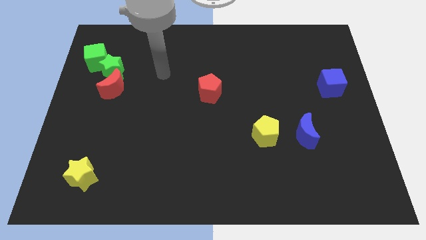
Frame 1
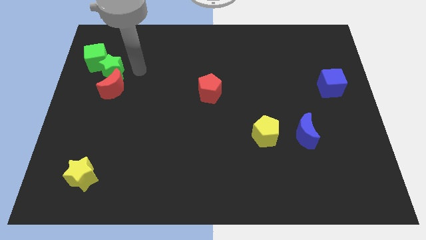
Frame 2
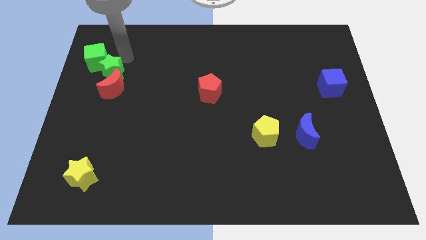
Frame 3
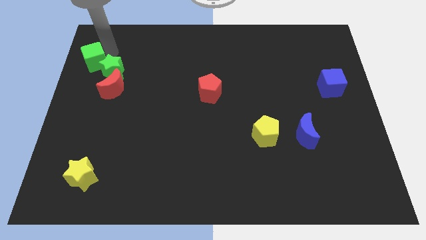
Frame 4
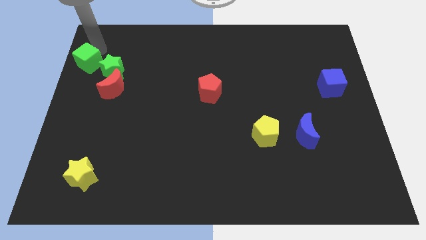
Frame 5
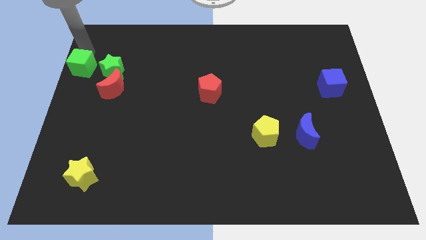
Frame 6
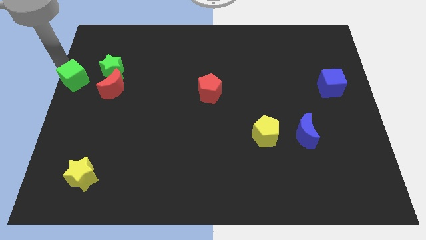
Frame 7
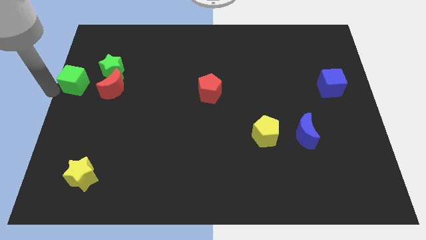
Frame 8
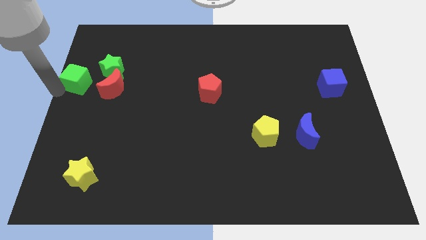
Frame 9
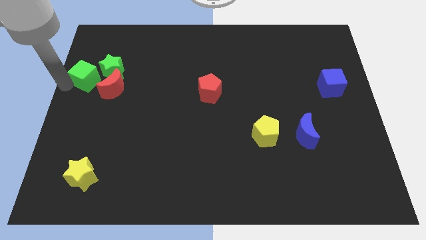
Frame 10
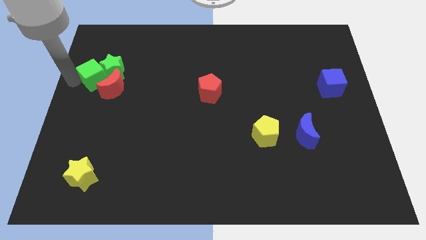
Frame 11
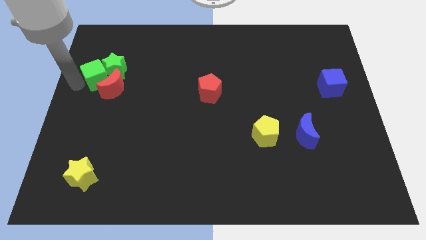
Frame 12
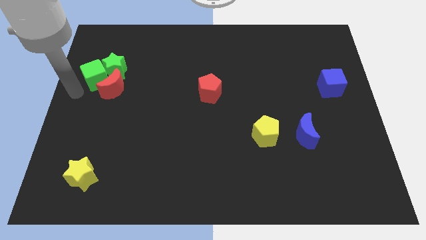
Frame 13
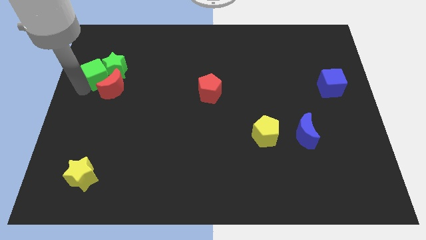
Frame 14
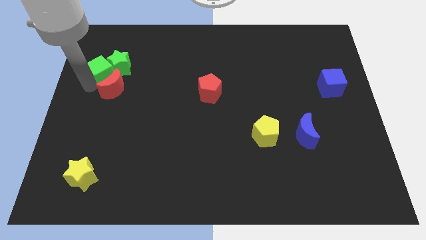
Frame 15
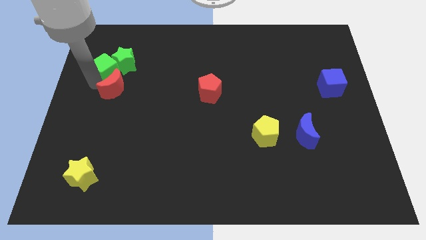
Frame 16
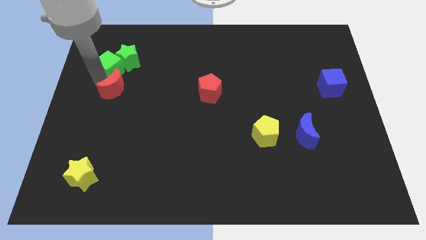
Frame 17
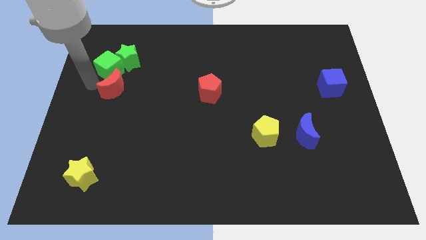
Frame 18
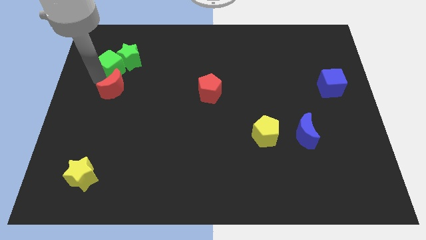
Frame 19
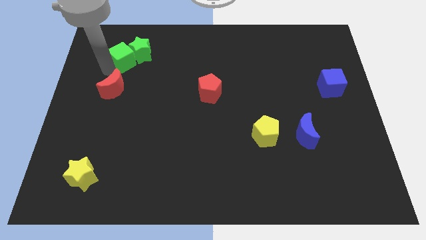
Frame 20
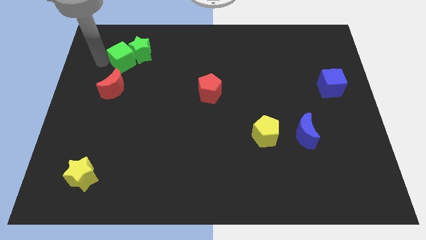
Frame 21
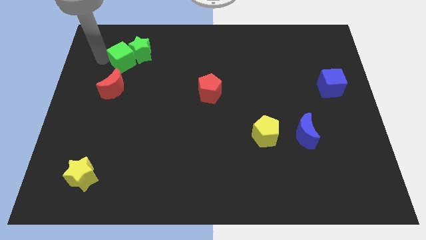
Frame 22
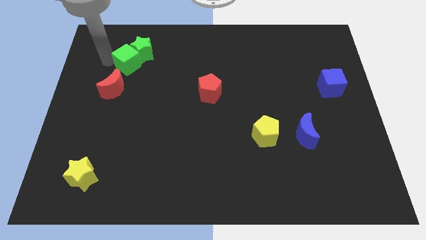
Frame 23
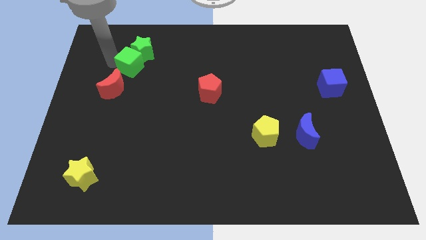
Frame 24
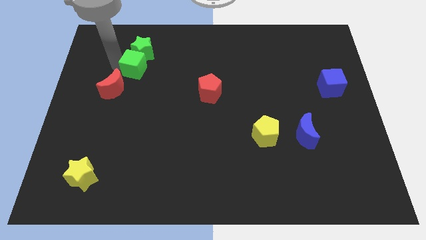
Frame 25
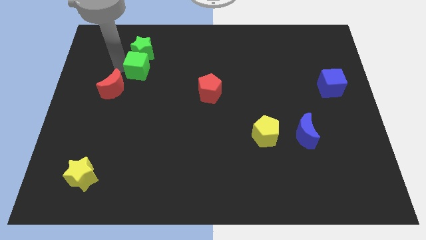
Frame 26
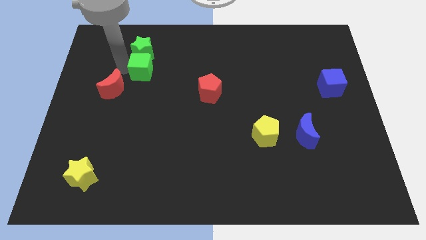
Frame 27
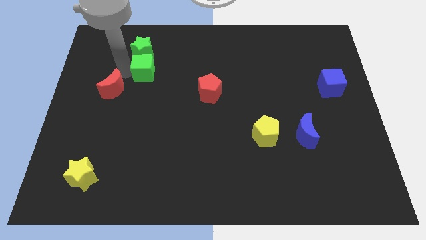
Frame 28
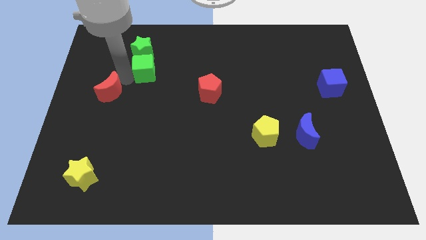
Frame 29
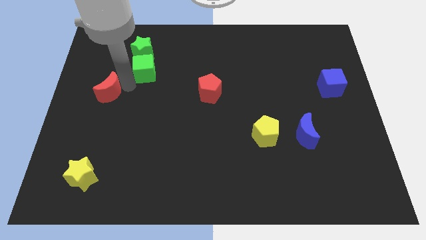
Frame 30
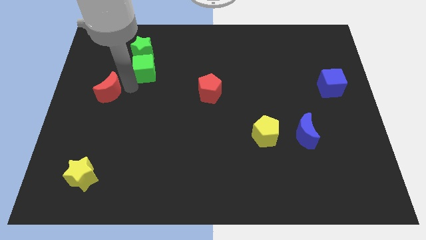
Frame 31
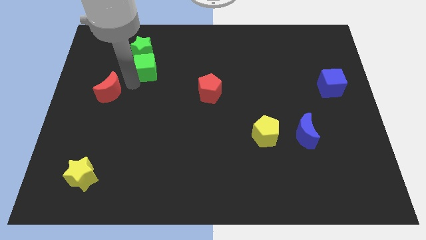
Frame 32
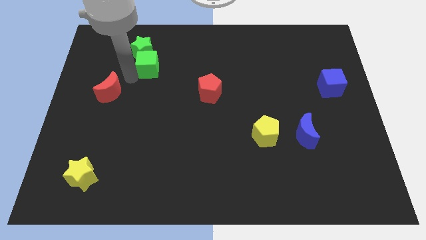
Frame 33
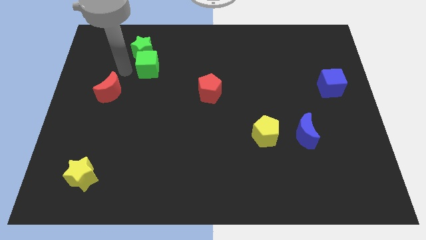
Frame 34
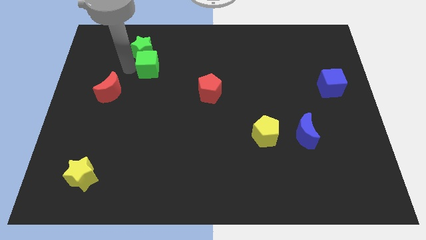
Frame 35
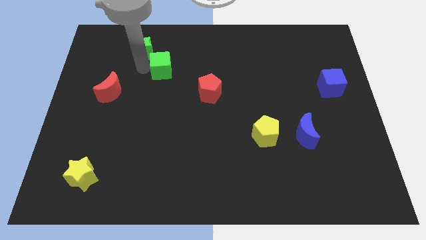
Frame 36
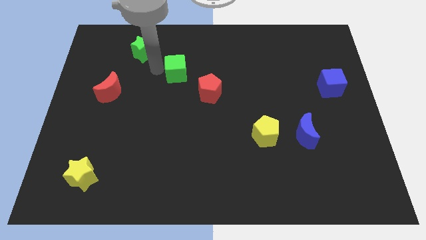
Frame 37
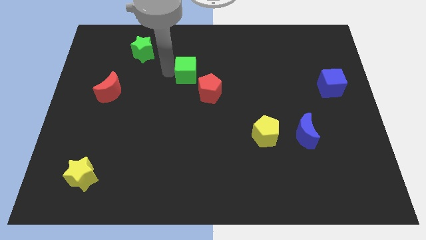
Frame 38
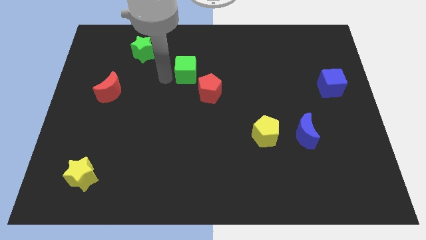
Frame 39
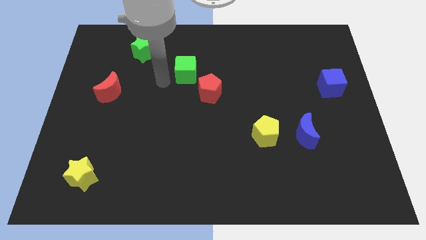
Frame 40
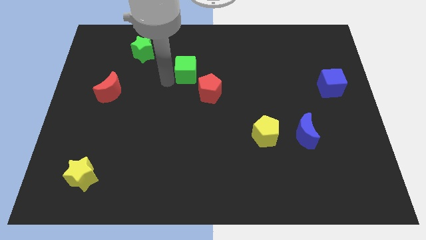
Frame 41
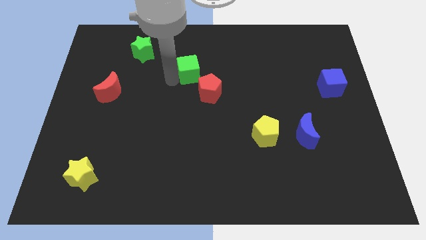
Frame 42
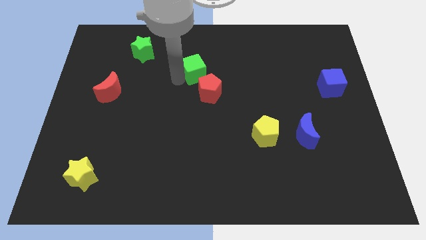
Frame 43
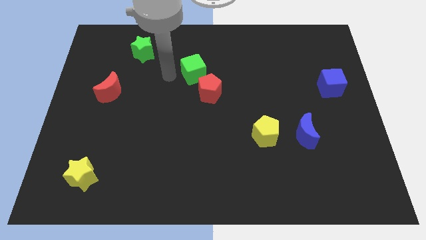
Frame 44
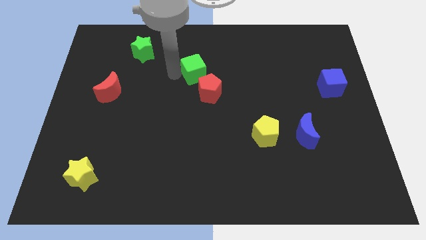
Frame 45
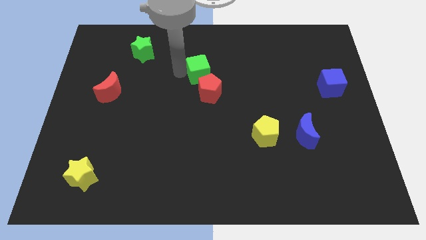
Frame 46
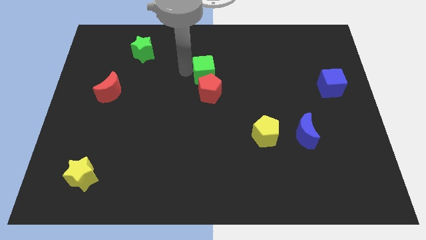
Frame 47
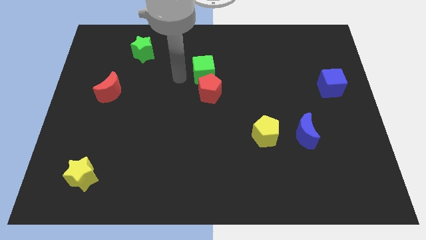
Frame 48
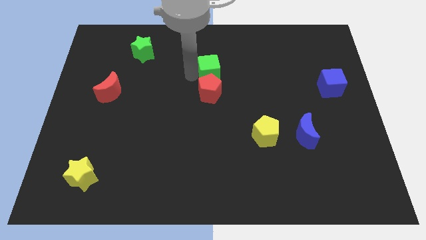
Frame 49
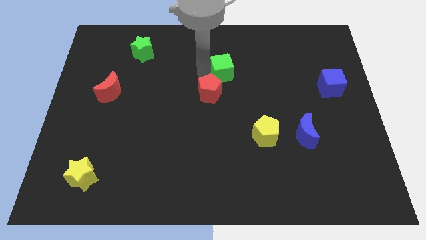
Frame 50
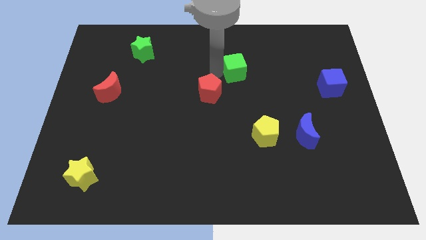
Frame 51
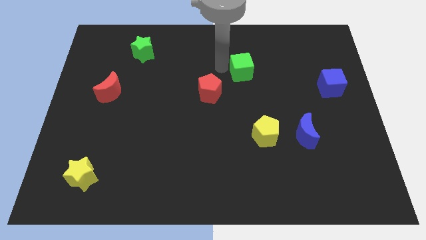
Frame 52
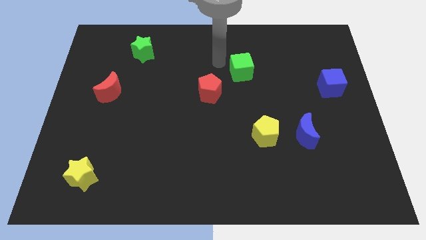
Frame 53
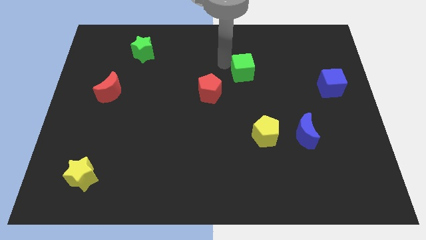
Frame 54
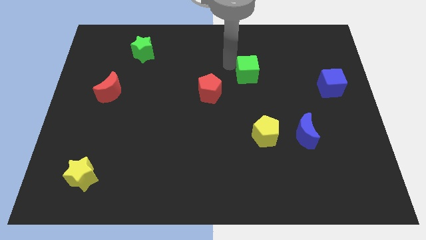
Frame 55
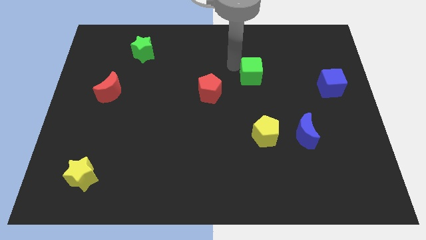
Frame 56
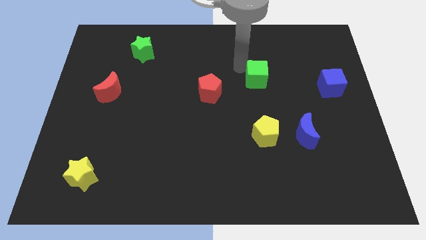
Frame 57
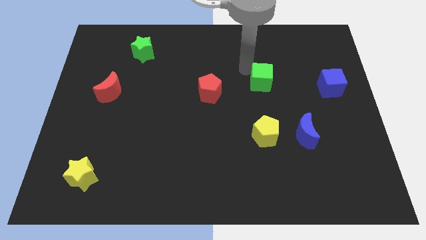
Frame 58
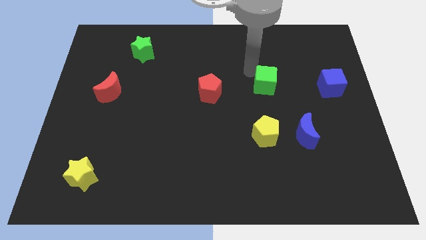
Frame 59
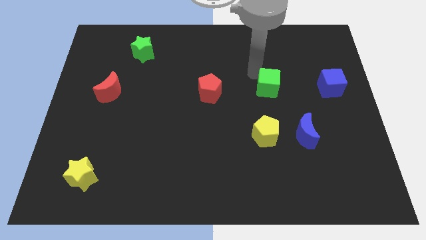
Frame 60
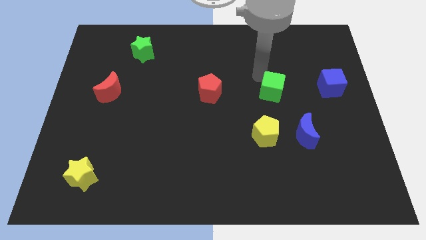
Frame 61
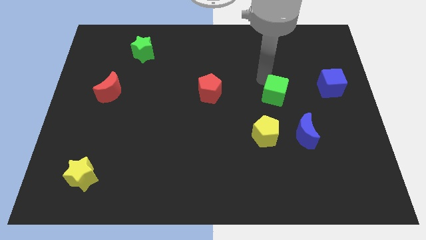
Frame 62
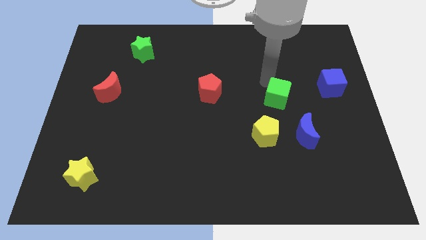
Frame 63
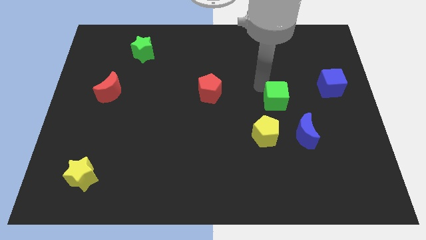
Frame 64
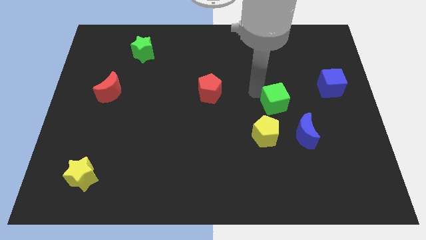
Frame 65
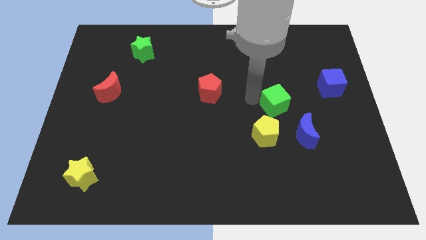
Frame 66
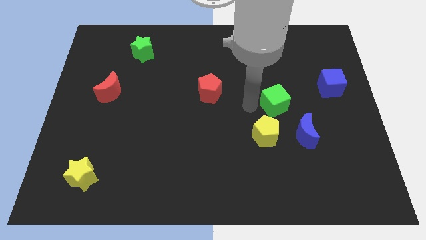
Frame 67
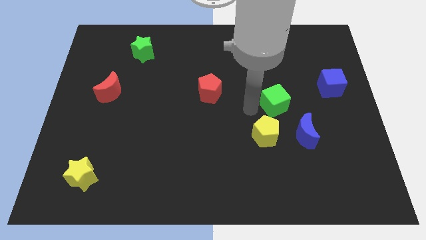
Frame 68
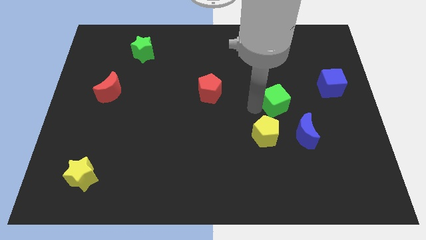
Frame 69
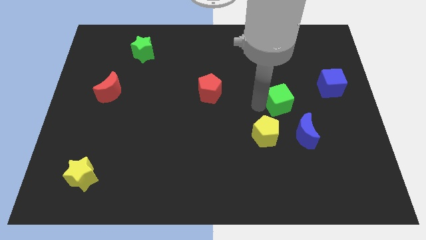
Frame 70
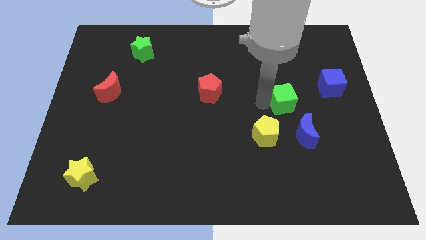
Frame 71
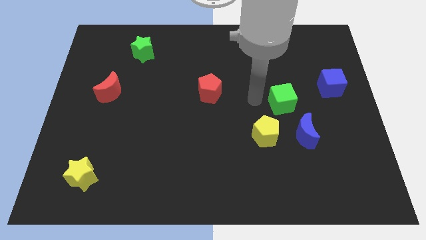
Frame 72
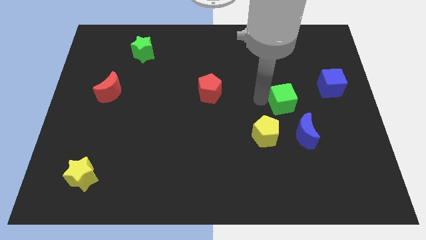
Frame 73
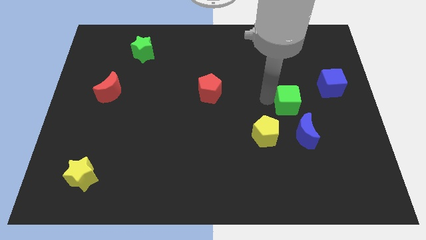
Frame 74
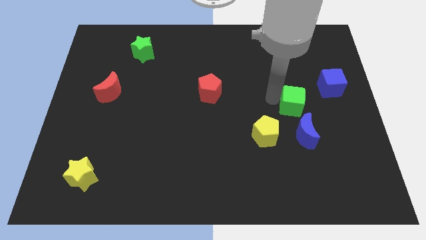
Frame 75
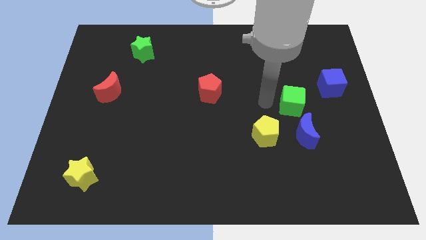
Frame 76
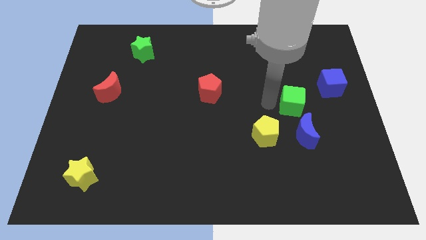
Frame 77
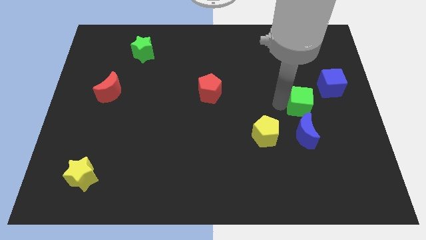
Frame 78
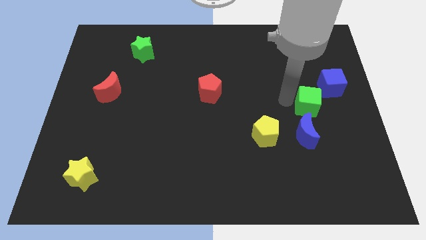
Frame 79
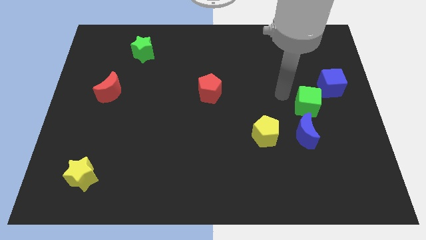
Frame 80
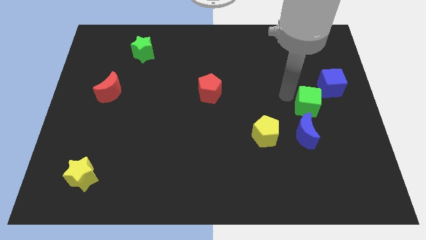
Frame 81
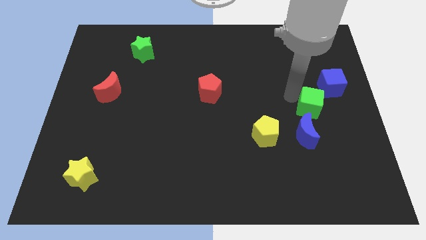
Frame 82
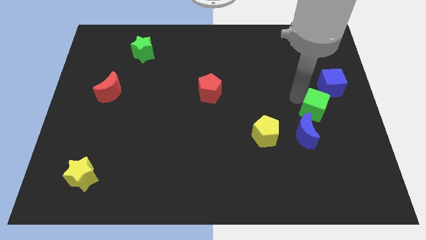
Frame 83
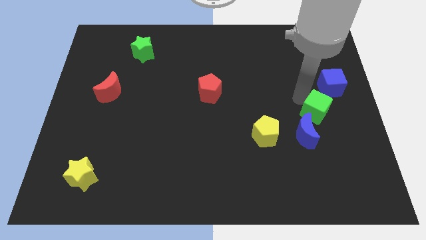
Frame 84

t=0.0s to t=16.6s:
move the green cube to the bottom of the blue cube
